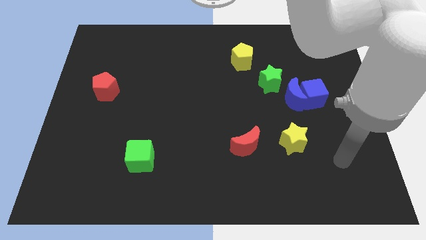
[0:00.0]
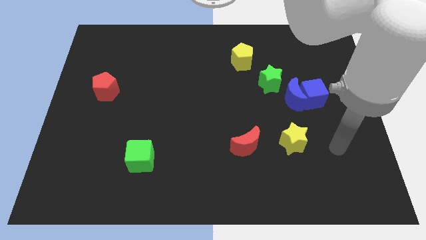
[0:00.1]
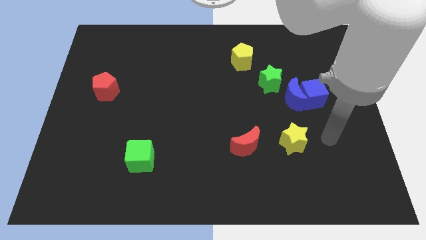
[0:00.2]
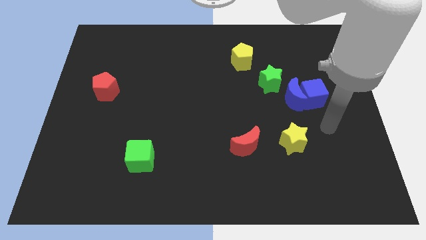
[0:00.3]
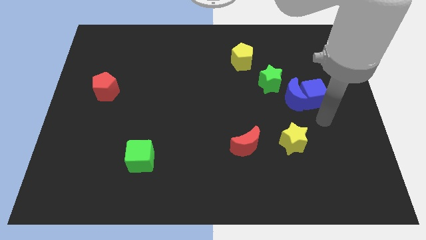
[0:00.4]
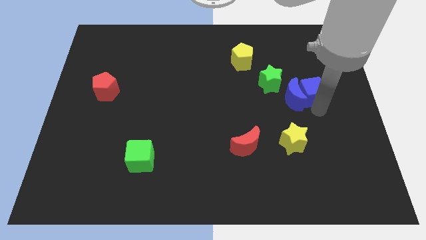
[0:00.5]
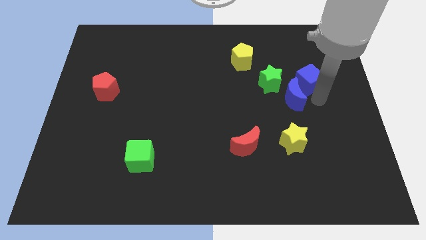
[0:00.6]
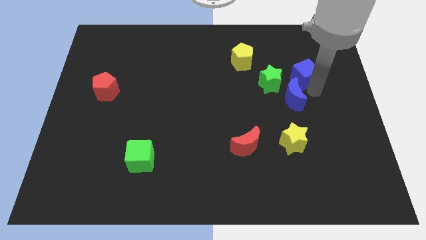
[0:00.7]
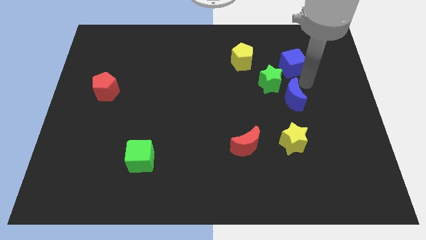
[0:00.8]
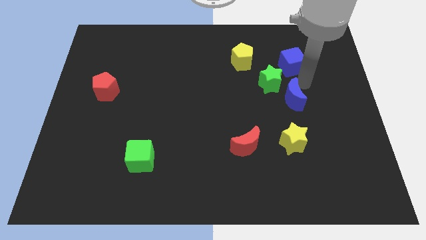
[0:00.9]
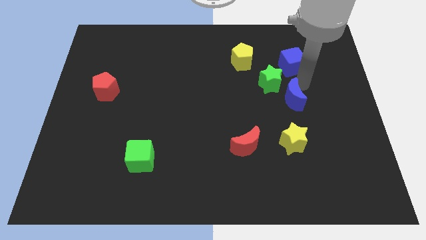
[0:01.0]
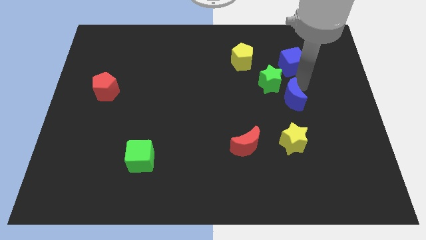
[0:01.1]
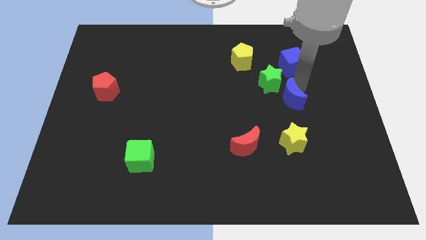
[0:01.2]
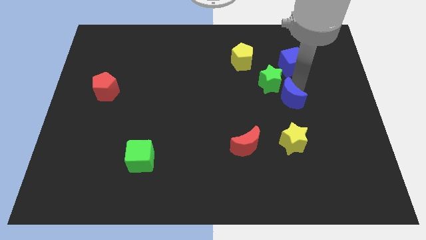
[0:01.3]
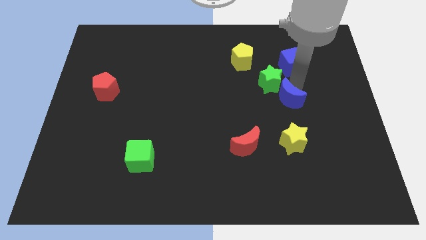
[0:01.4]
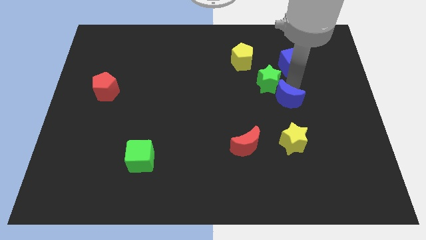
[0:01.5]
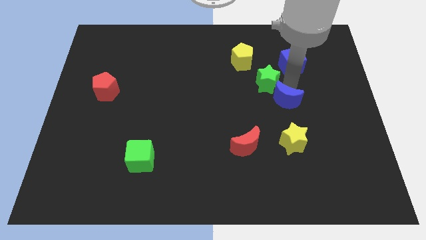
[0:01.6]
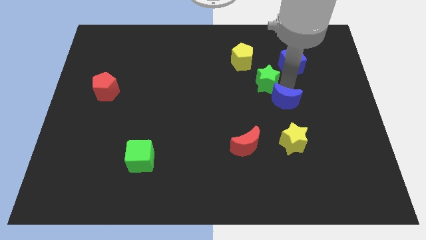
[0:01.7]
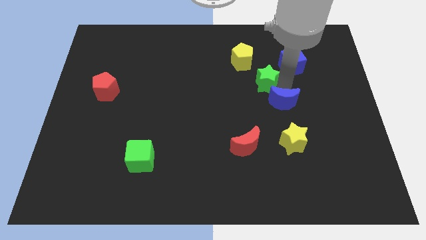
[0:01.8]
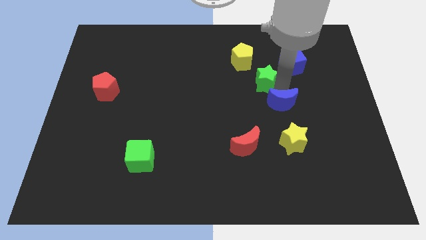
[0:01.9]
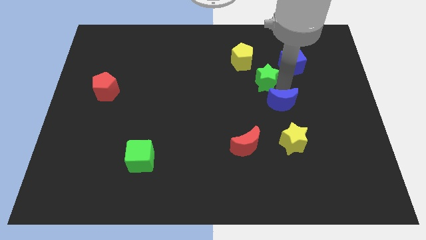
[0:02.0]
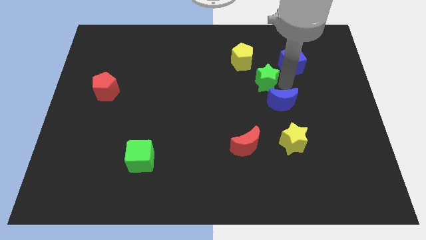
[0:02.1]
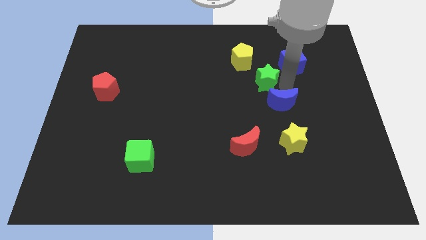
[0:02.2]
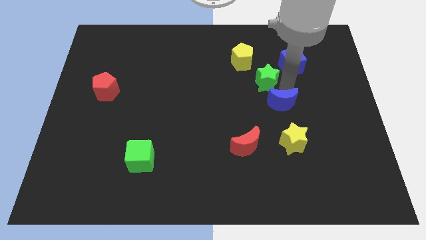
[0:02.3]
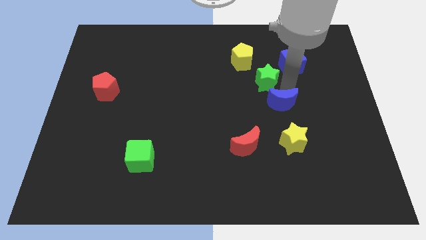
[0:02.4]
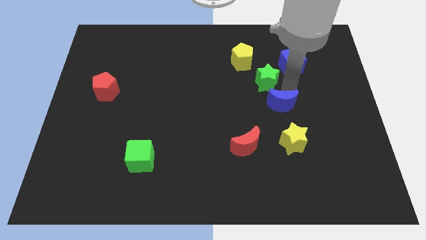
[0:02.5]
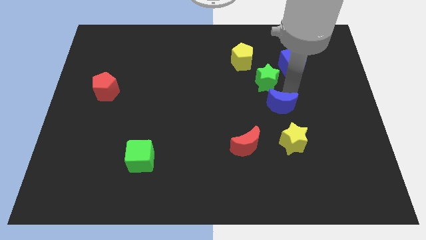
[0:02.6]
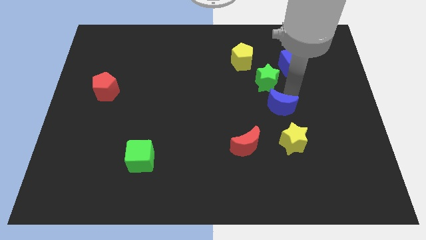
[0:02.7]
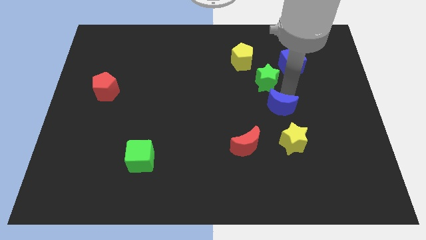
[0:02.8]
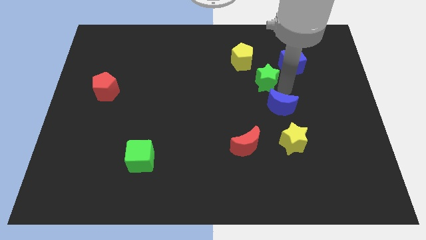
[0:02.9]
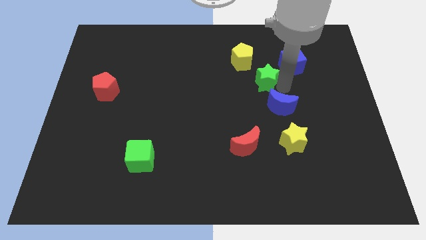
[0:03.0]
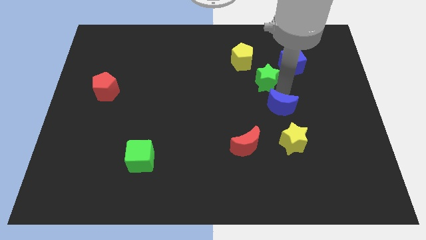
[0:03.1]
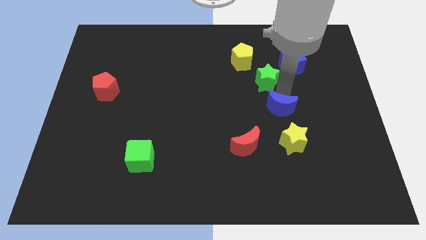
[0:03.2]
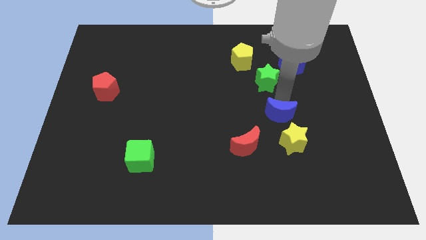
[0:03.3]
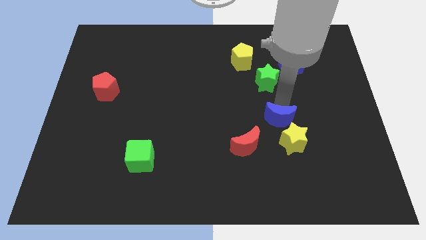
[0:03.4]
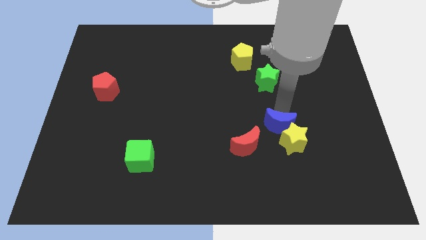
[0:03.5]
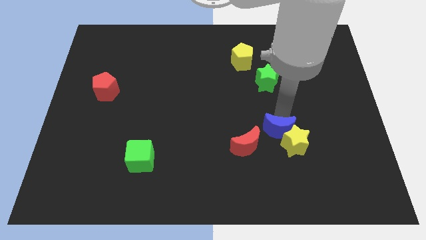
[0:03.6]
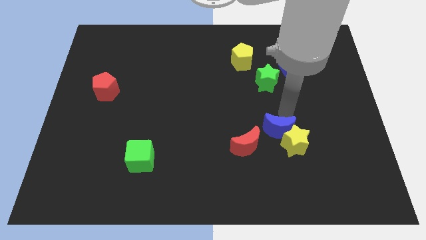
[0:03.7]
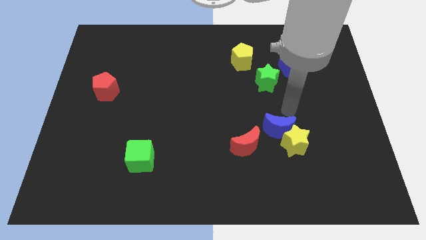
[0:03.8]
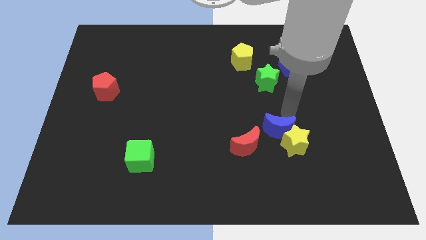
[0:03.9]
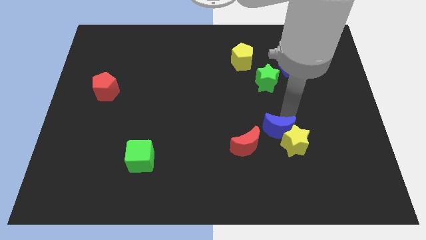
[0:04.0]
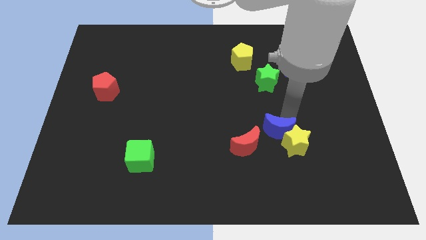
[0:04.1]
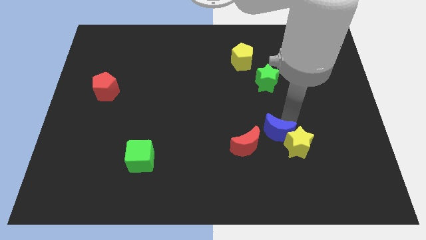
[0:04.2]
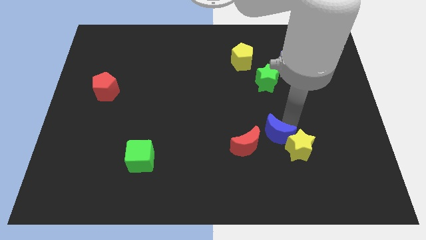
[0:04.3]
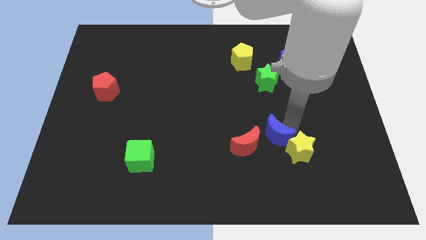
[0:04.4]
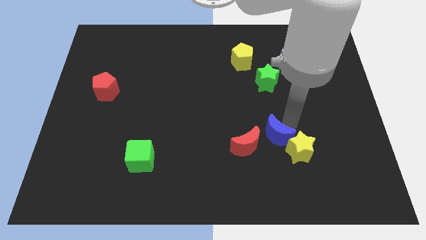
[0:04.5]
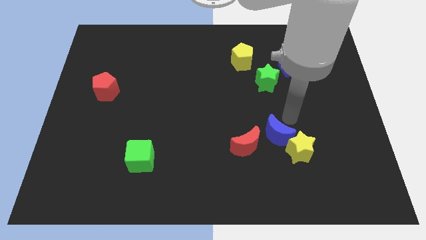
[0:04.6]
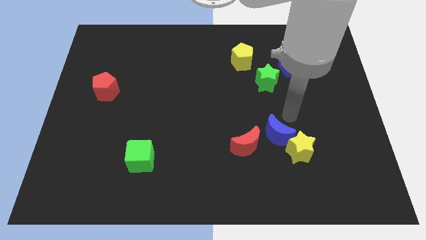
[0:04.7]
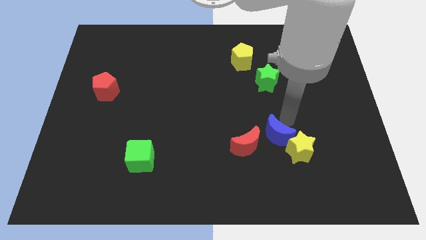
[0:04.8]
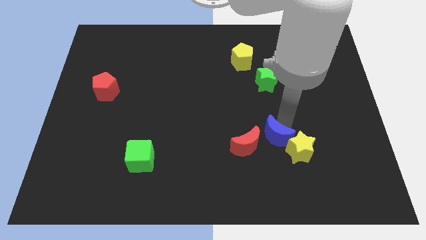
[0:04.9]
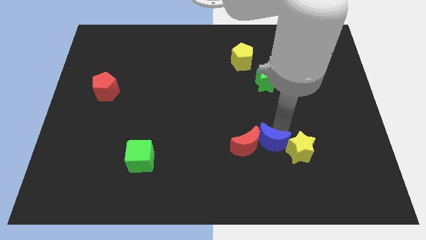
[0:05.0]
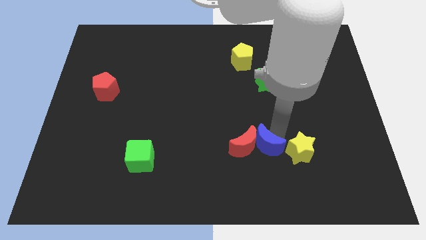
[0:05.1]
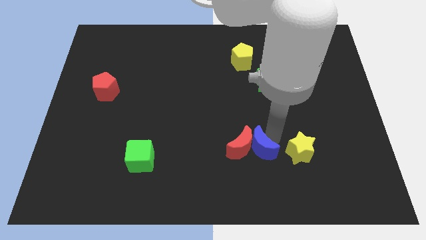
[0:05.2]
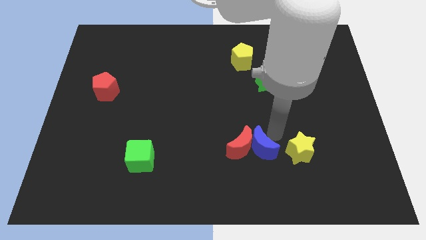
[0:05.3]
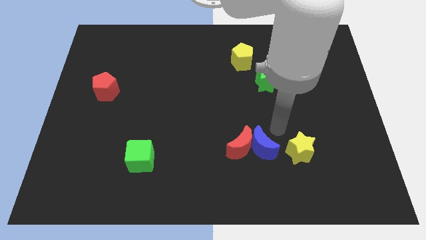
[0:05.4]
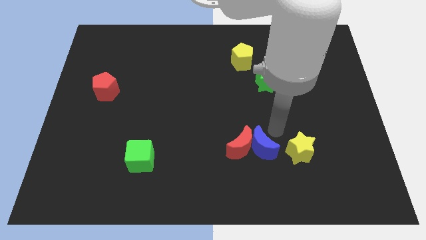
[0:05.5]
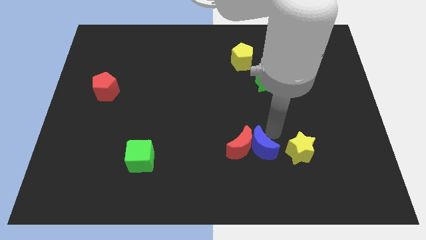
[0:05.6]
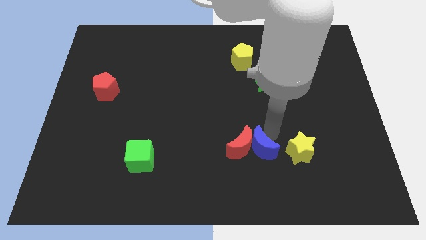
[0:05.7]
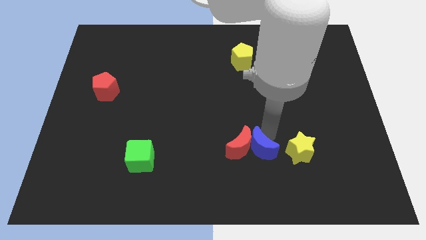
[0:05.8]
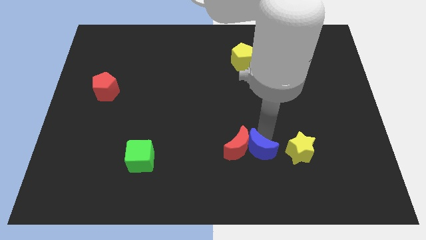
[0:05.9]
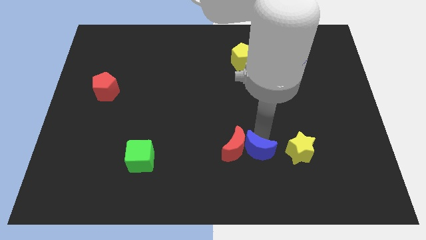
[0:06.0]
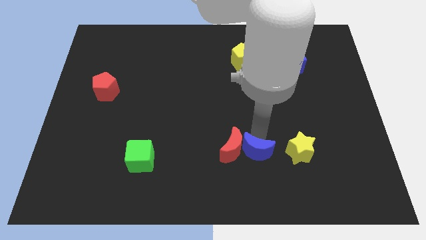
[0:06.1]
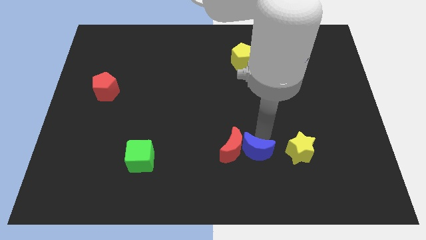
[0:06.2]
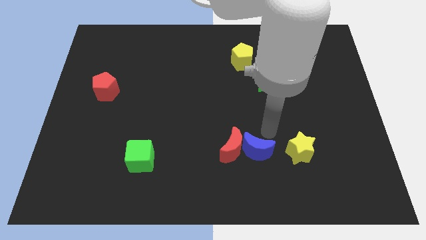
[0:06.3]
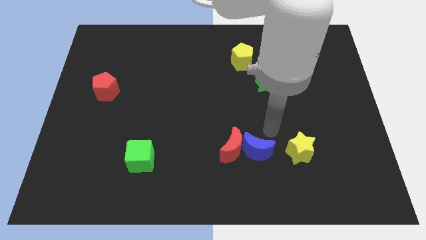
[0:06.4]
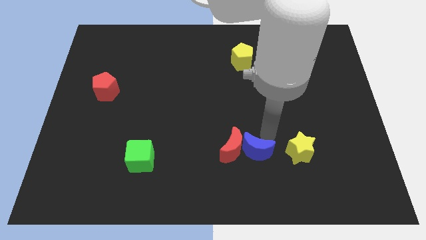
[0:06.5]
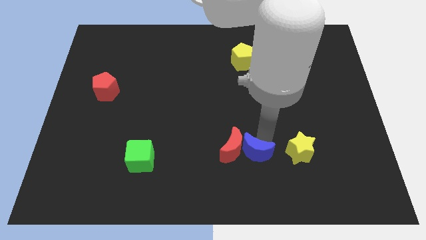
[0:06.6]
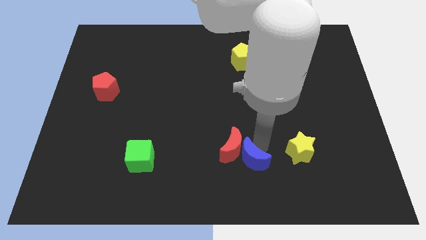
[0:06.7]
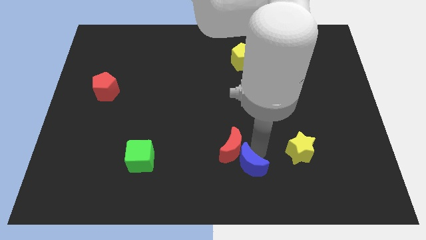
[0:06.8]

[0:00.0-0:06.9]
move the blue moon to the bottom side
